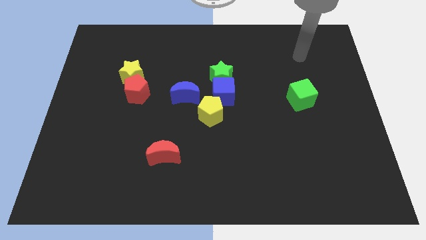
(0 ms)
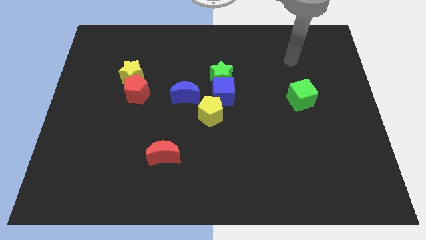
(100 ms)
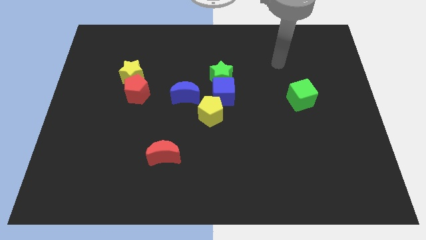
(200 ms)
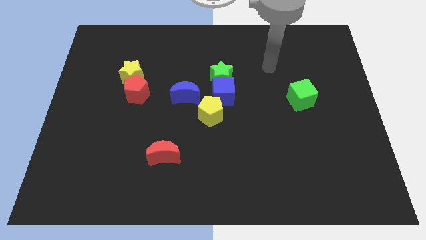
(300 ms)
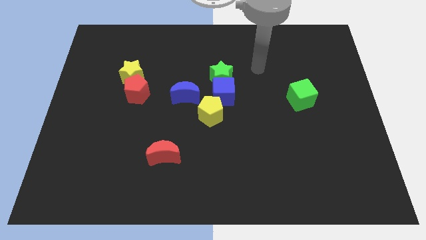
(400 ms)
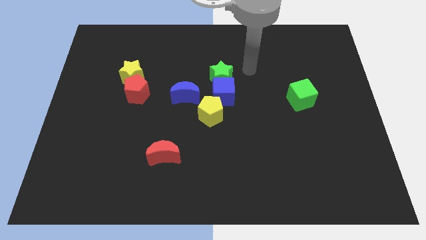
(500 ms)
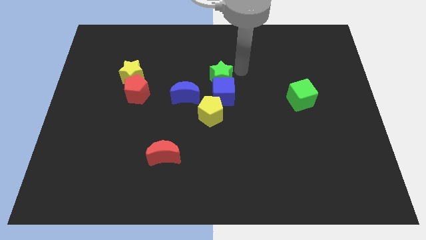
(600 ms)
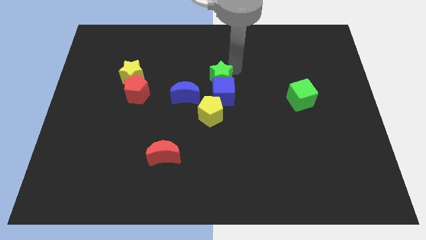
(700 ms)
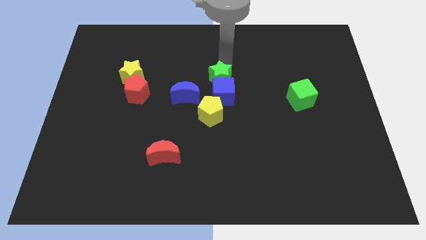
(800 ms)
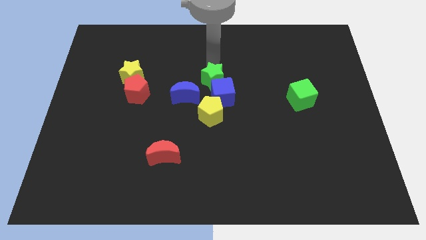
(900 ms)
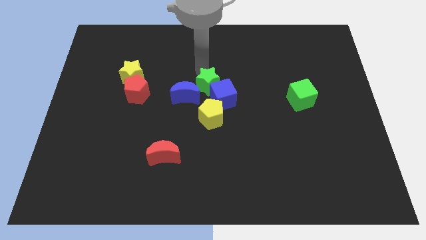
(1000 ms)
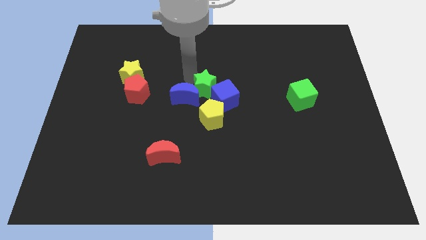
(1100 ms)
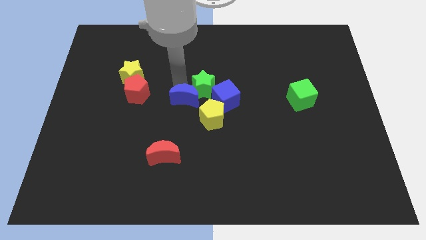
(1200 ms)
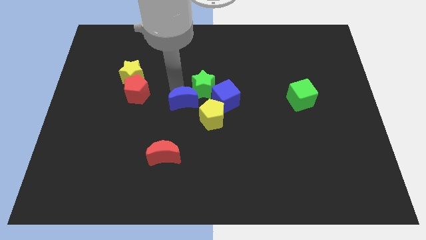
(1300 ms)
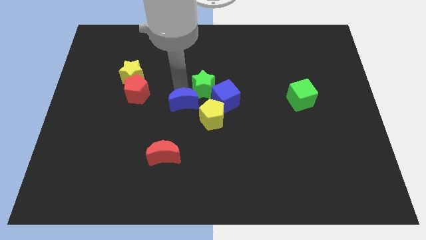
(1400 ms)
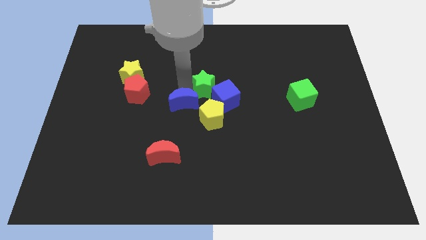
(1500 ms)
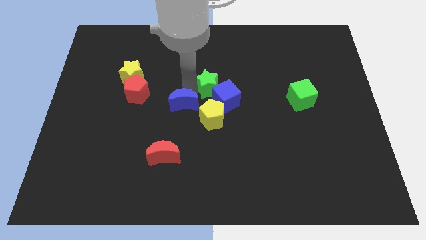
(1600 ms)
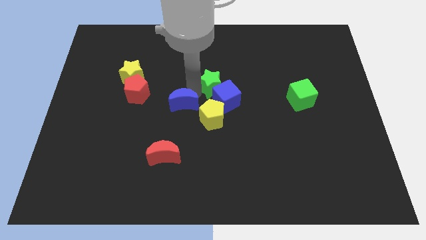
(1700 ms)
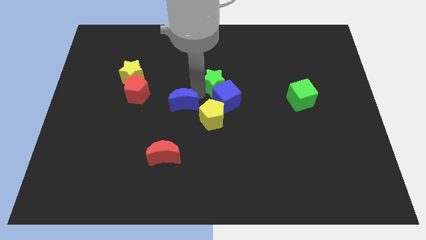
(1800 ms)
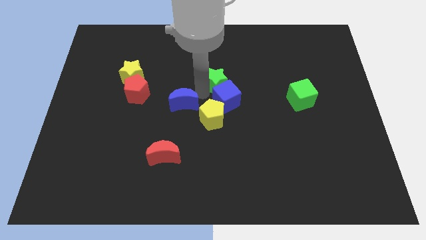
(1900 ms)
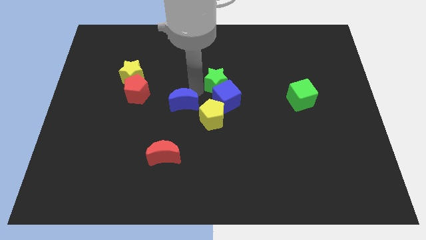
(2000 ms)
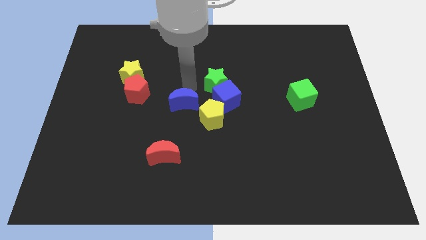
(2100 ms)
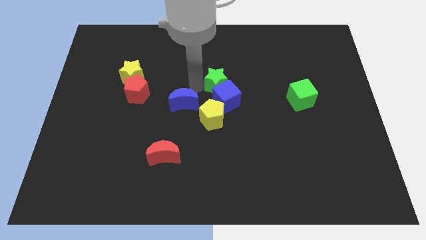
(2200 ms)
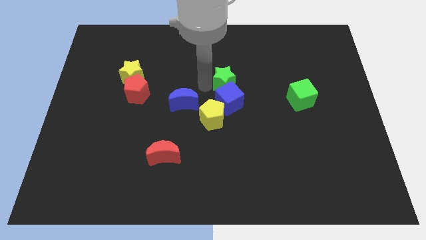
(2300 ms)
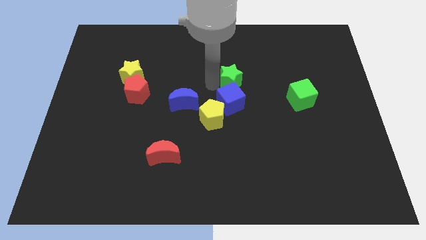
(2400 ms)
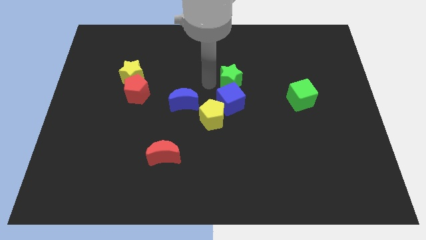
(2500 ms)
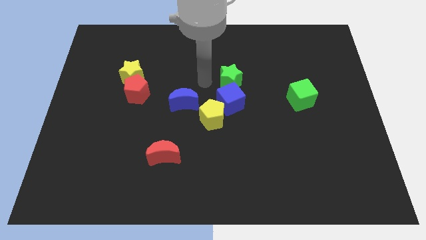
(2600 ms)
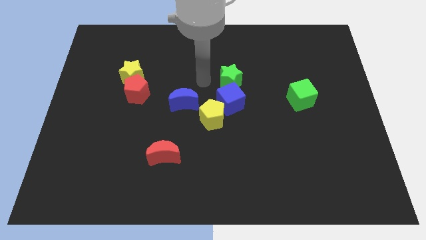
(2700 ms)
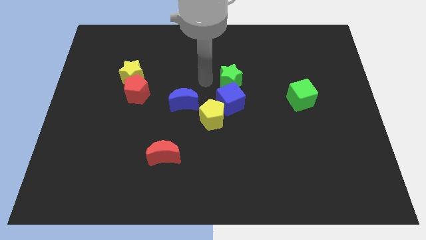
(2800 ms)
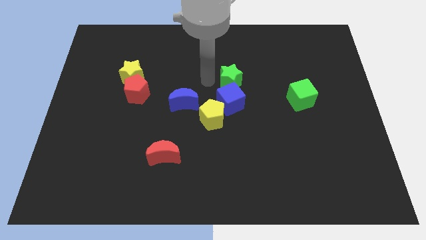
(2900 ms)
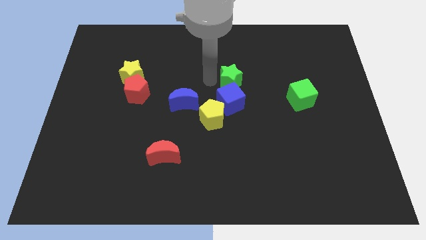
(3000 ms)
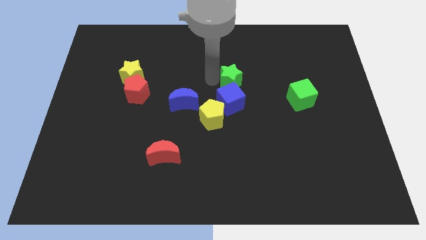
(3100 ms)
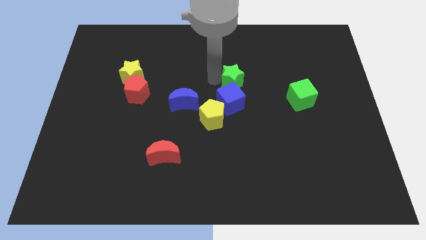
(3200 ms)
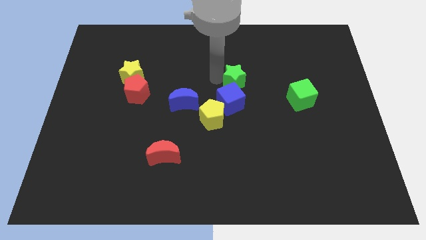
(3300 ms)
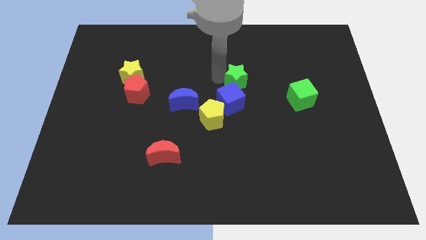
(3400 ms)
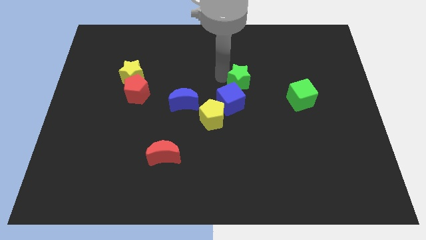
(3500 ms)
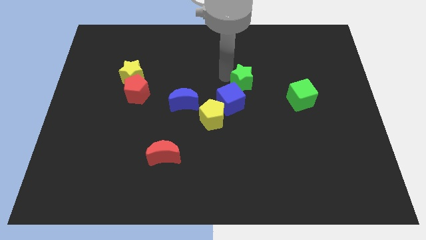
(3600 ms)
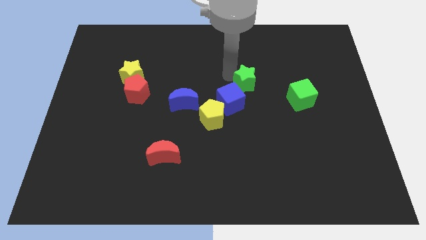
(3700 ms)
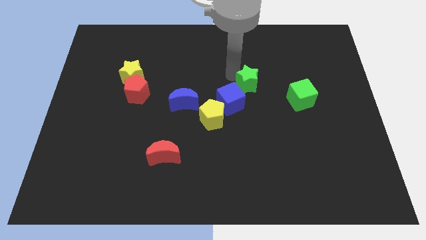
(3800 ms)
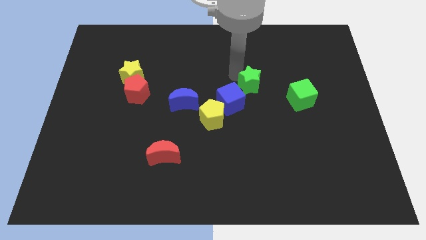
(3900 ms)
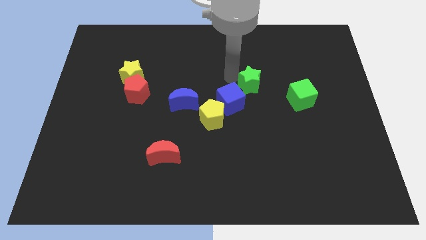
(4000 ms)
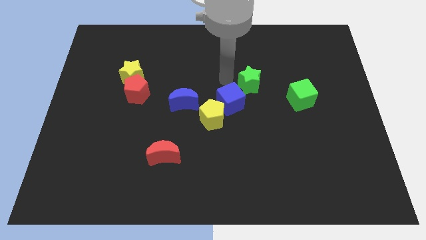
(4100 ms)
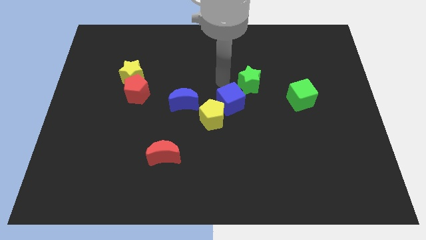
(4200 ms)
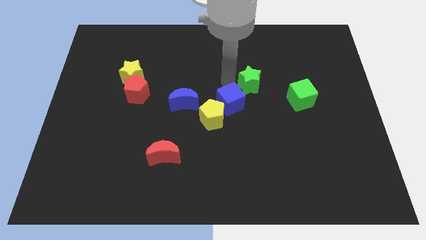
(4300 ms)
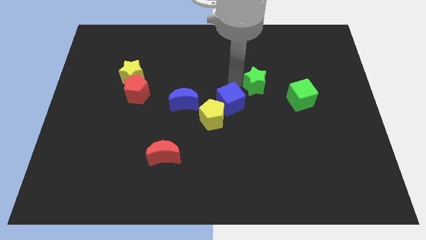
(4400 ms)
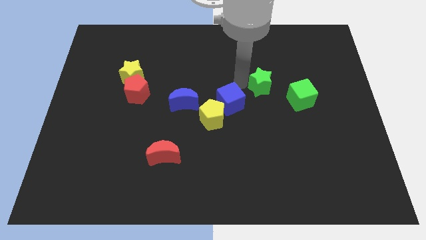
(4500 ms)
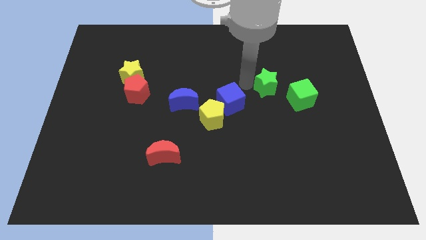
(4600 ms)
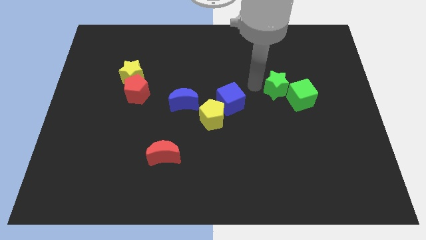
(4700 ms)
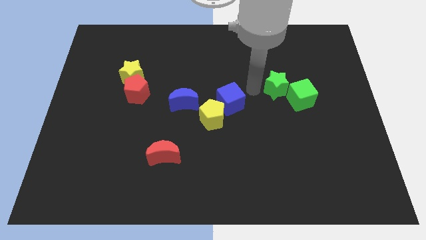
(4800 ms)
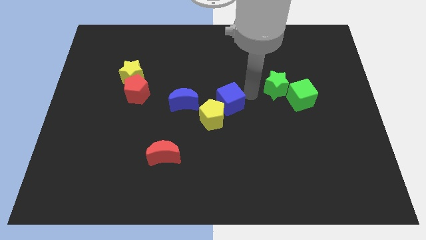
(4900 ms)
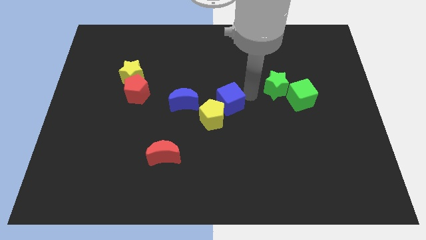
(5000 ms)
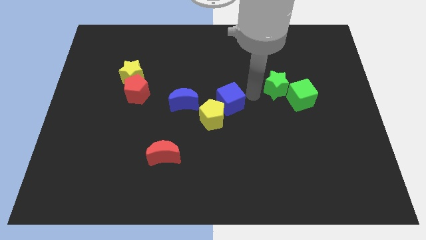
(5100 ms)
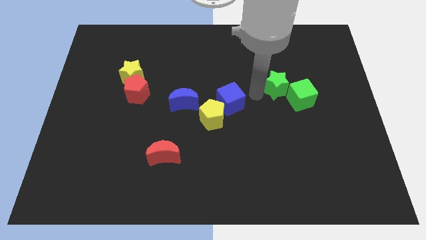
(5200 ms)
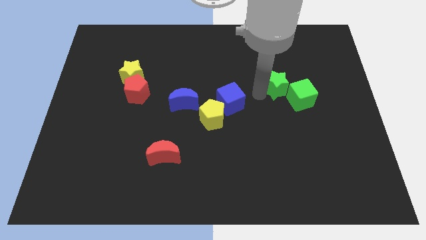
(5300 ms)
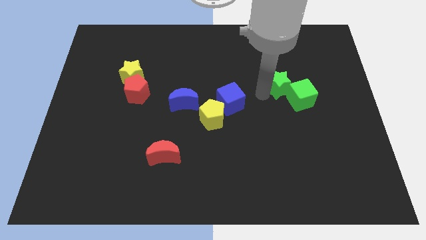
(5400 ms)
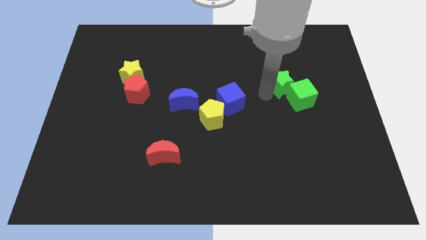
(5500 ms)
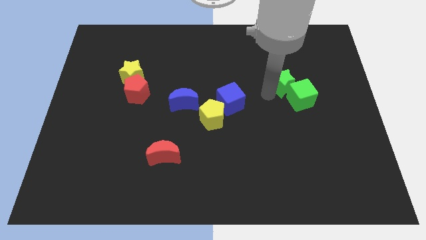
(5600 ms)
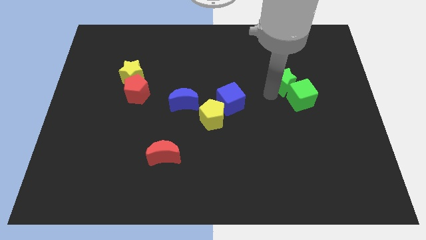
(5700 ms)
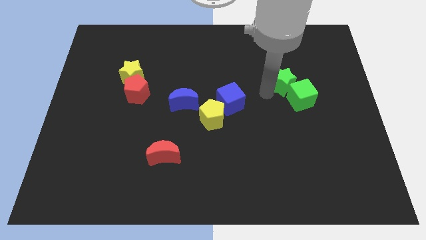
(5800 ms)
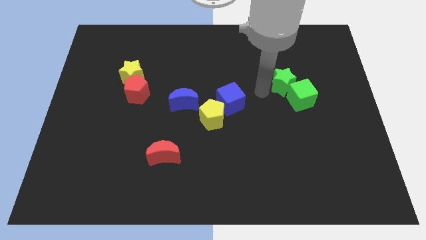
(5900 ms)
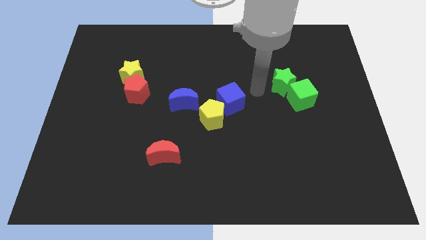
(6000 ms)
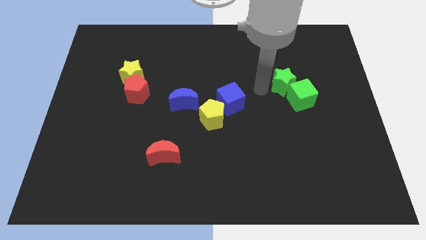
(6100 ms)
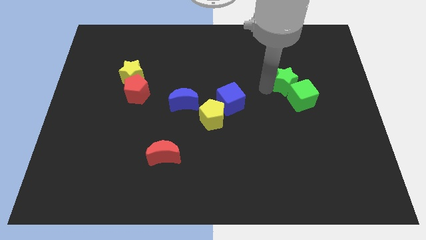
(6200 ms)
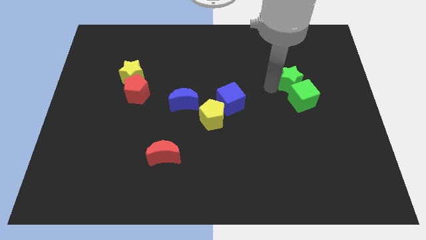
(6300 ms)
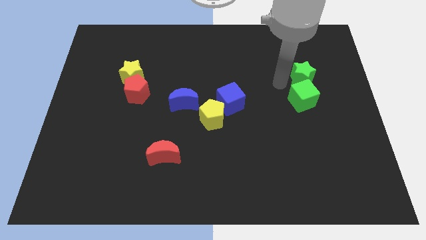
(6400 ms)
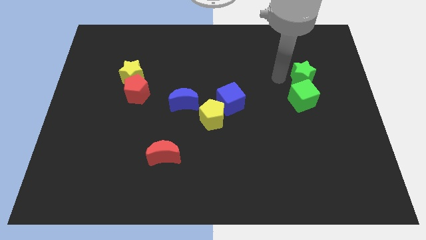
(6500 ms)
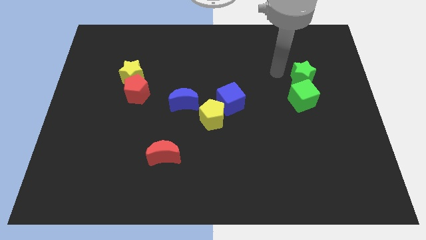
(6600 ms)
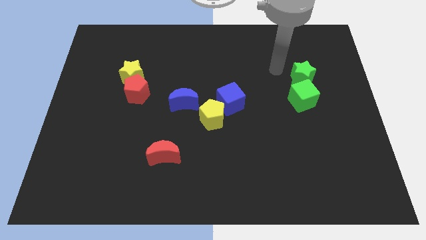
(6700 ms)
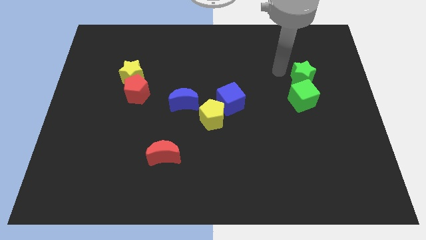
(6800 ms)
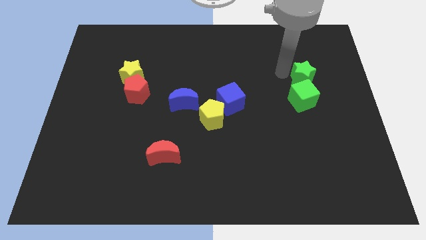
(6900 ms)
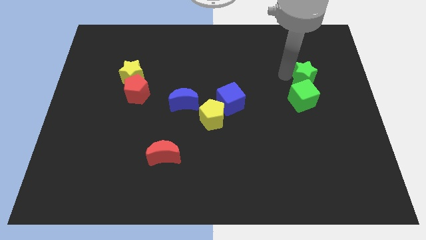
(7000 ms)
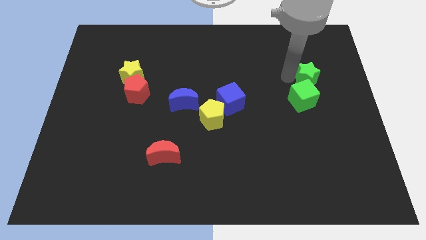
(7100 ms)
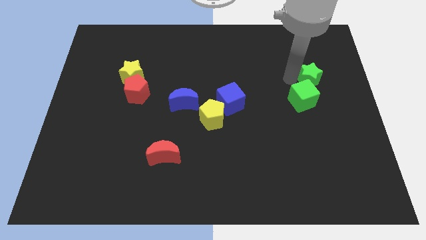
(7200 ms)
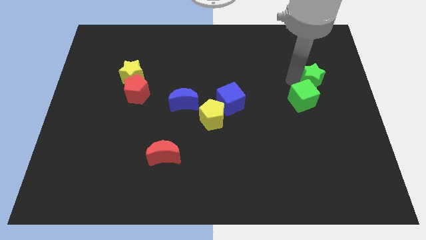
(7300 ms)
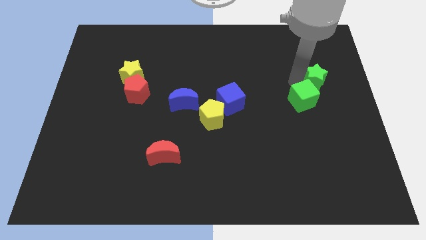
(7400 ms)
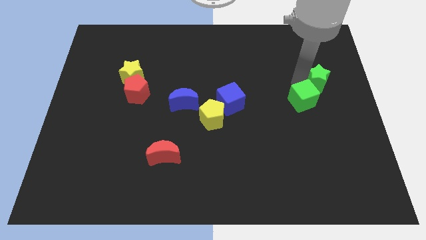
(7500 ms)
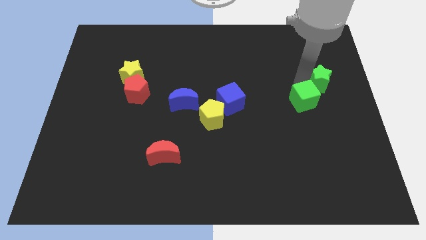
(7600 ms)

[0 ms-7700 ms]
slide the green star to the center right
